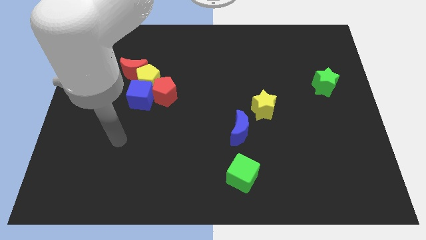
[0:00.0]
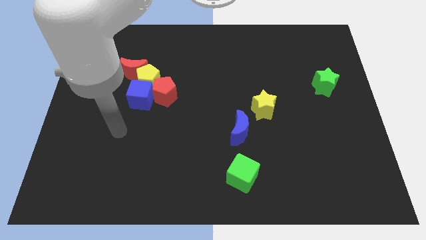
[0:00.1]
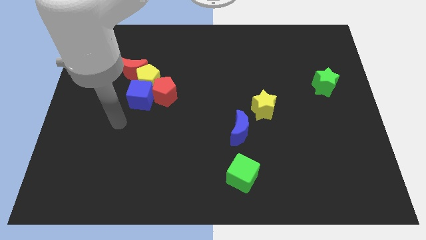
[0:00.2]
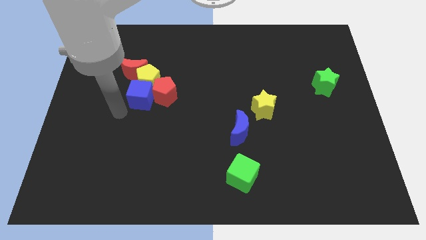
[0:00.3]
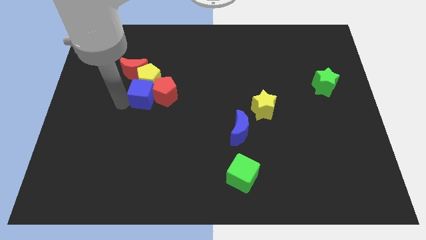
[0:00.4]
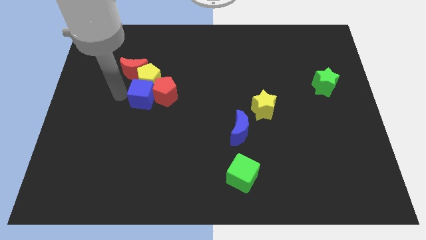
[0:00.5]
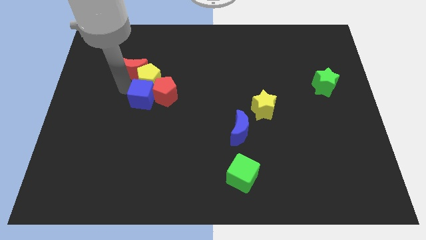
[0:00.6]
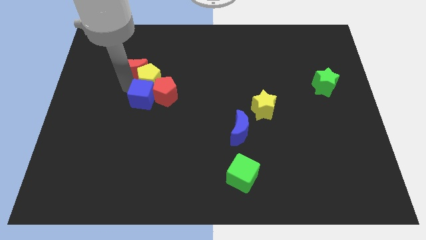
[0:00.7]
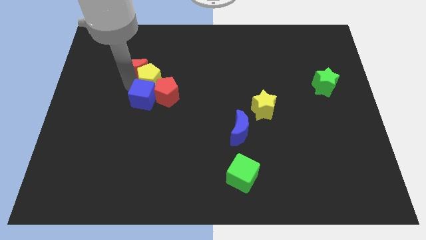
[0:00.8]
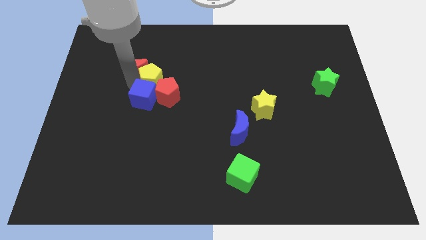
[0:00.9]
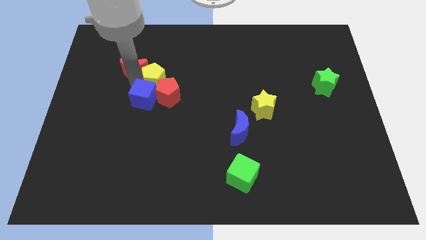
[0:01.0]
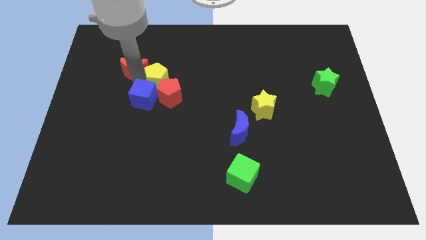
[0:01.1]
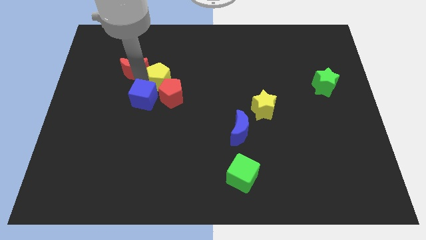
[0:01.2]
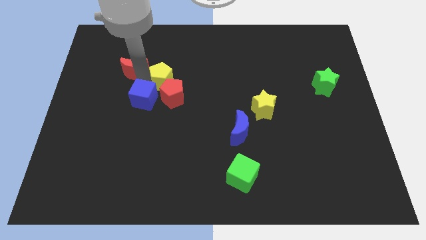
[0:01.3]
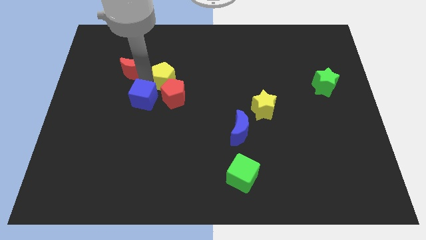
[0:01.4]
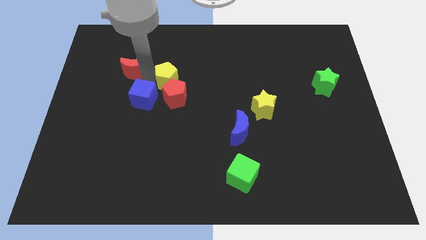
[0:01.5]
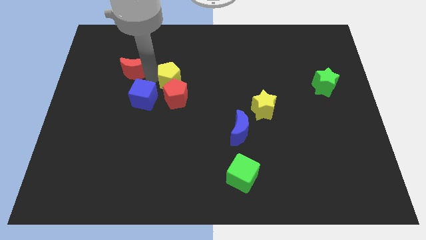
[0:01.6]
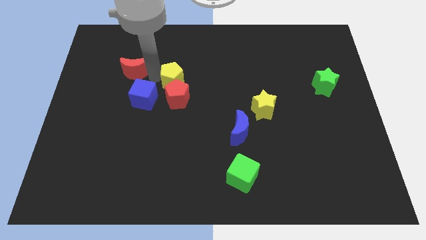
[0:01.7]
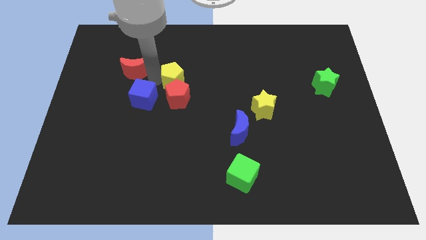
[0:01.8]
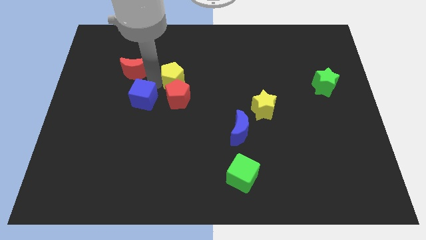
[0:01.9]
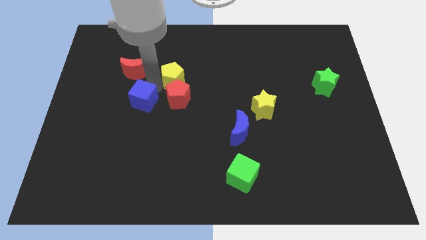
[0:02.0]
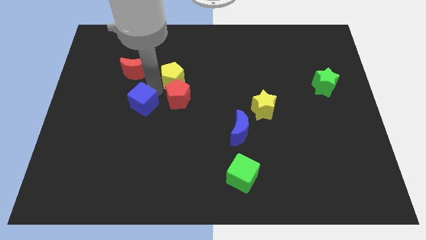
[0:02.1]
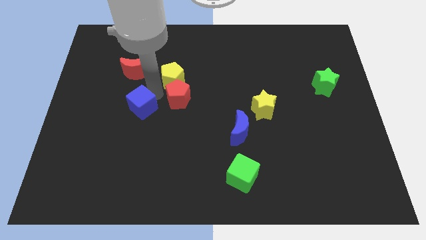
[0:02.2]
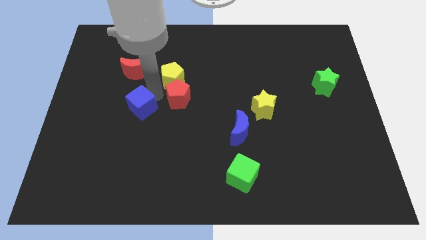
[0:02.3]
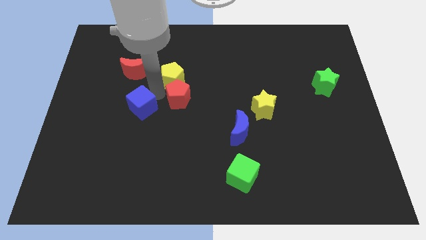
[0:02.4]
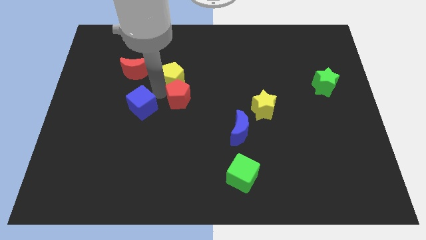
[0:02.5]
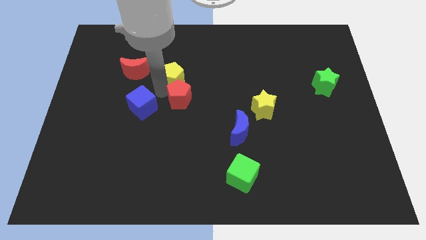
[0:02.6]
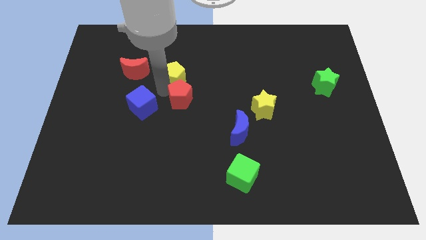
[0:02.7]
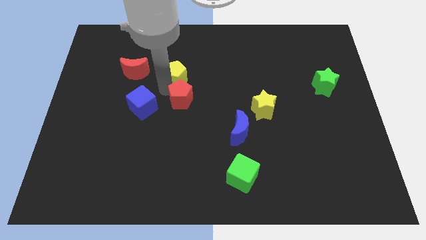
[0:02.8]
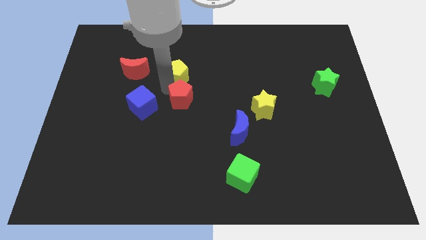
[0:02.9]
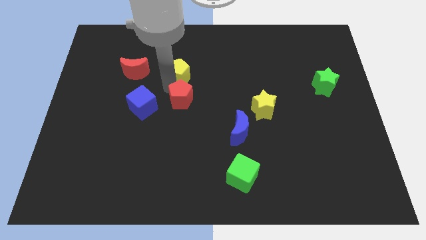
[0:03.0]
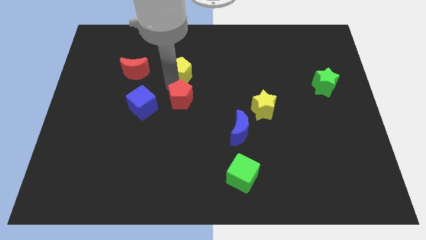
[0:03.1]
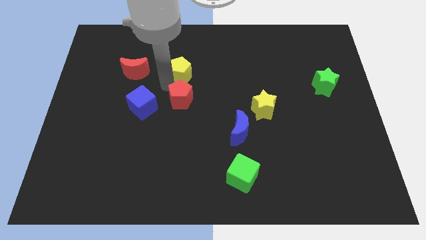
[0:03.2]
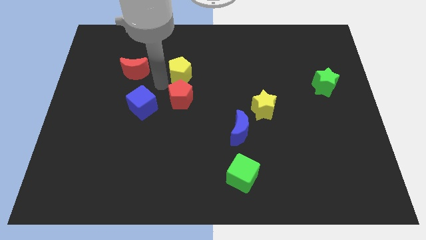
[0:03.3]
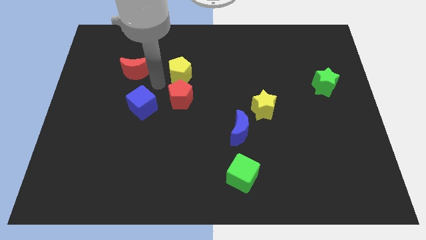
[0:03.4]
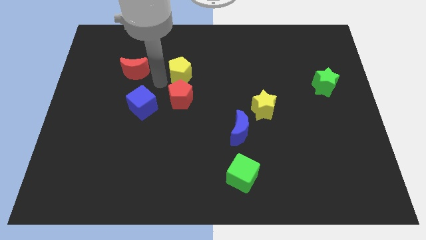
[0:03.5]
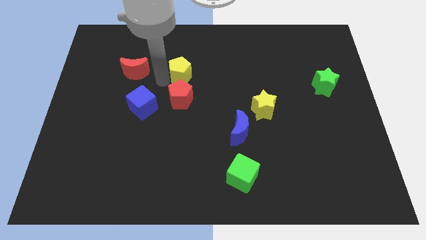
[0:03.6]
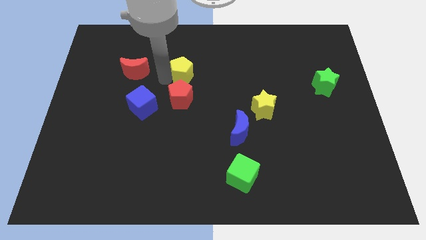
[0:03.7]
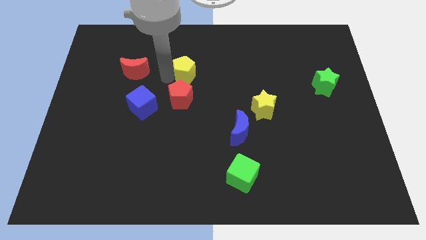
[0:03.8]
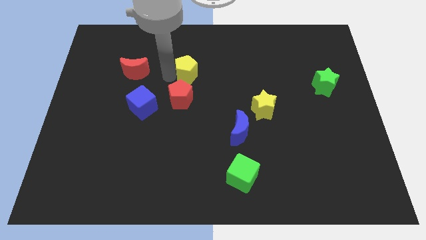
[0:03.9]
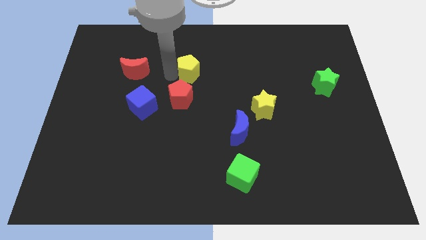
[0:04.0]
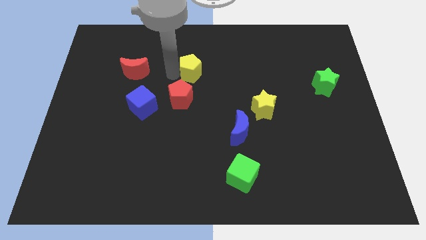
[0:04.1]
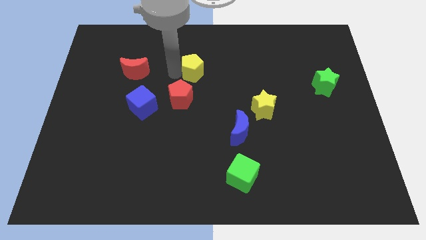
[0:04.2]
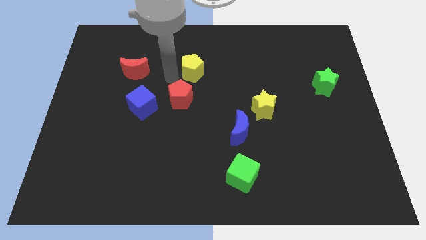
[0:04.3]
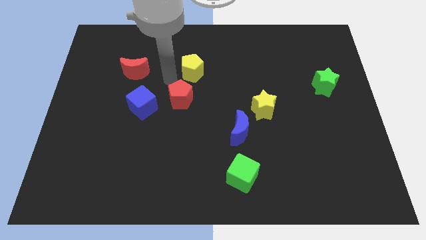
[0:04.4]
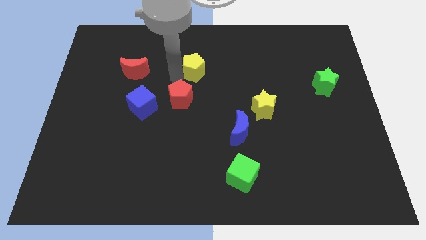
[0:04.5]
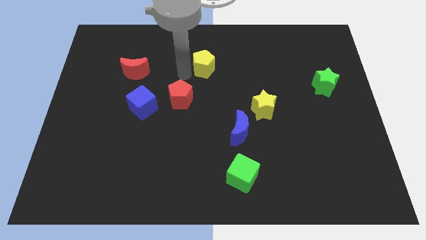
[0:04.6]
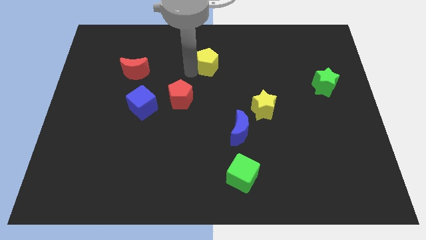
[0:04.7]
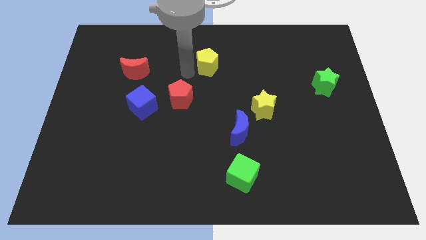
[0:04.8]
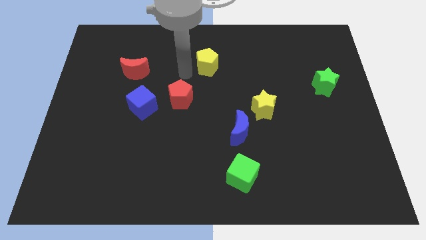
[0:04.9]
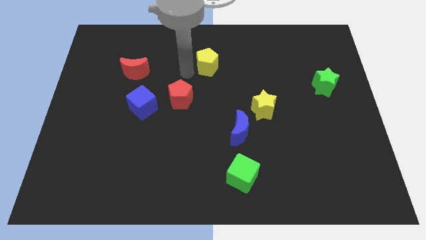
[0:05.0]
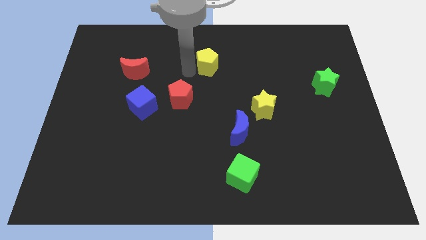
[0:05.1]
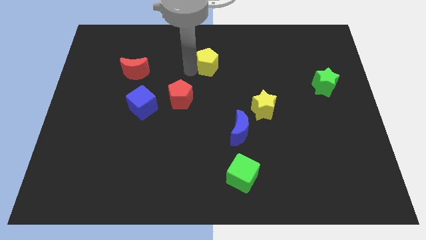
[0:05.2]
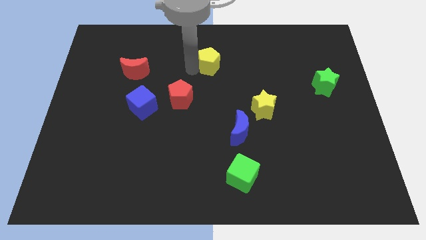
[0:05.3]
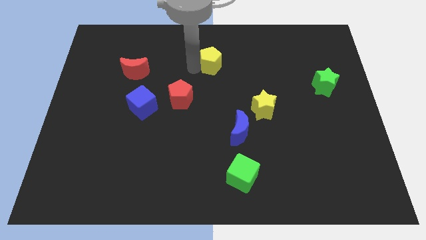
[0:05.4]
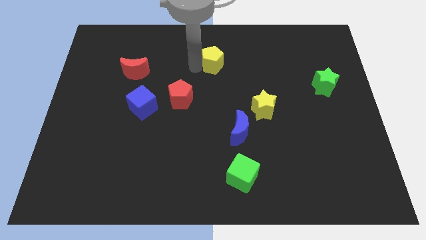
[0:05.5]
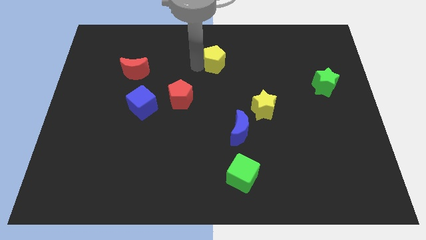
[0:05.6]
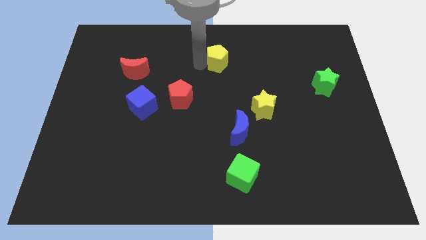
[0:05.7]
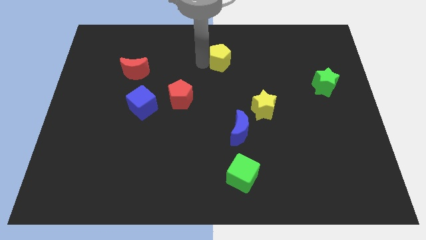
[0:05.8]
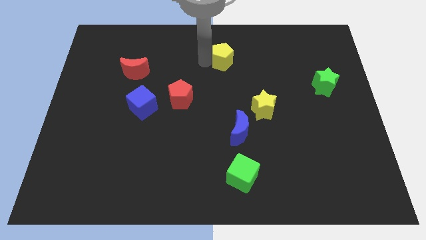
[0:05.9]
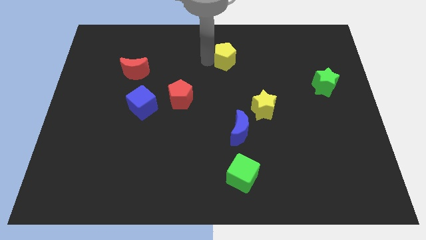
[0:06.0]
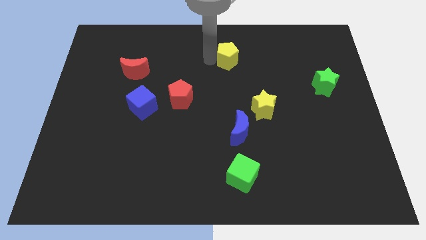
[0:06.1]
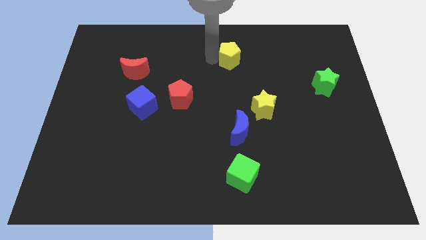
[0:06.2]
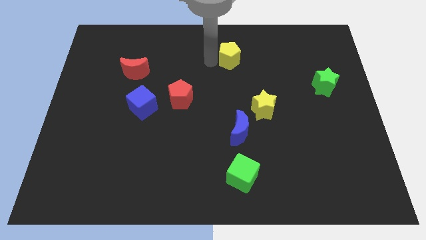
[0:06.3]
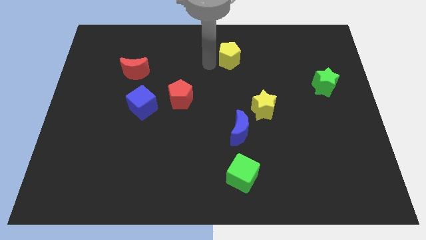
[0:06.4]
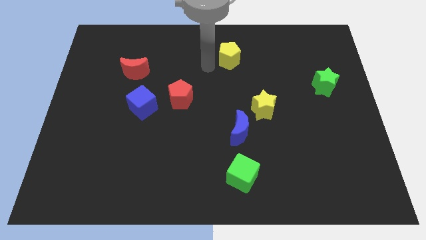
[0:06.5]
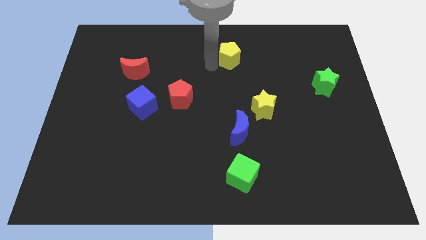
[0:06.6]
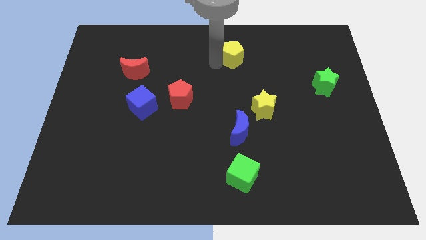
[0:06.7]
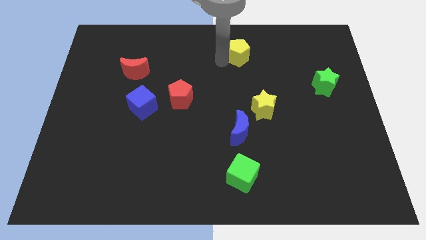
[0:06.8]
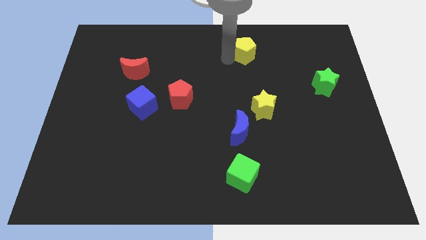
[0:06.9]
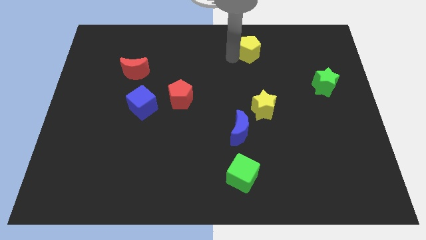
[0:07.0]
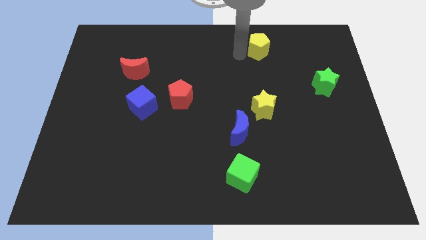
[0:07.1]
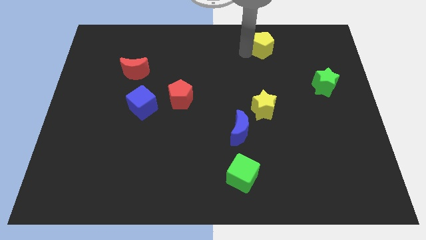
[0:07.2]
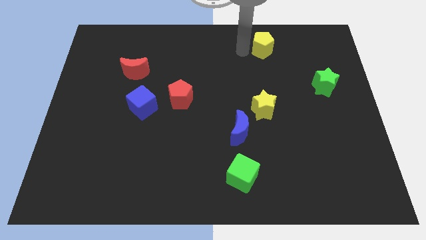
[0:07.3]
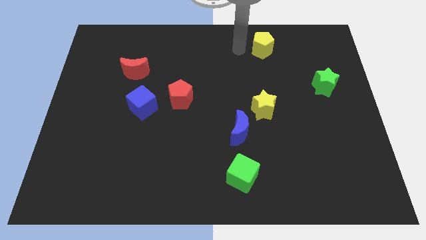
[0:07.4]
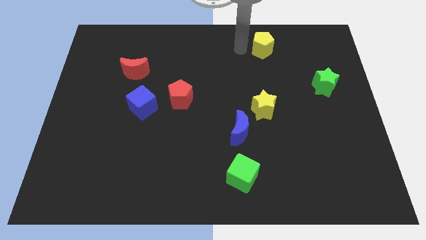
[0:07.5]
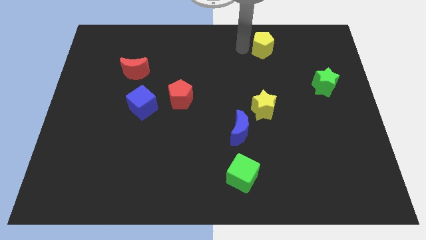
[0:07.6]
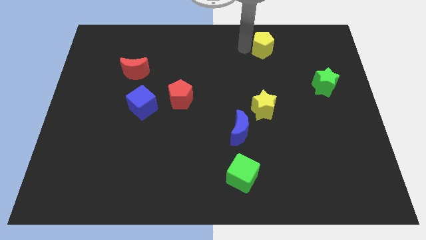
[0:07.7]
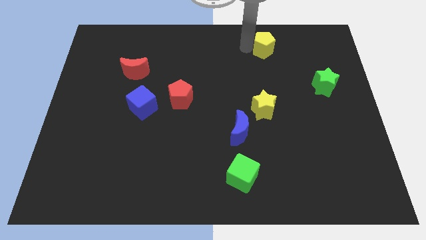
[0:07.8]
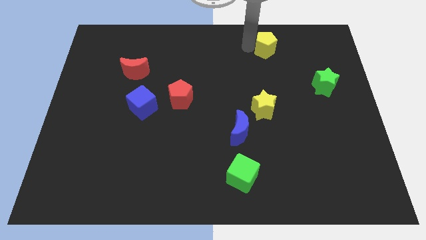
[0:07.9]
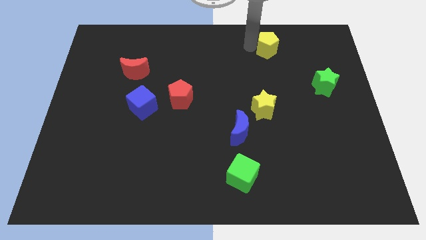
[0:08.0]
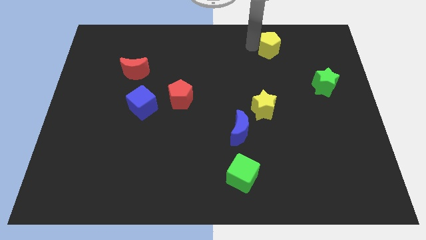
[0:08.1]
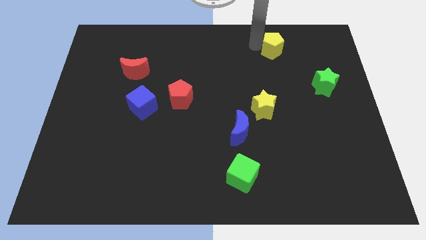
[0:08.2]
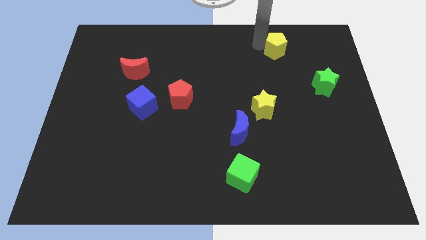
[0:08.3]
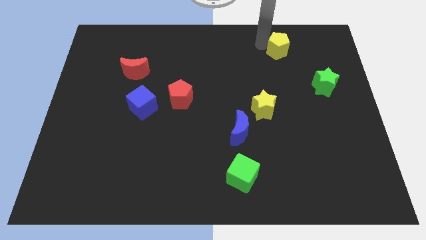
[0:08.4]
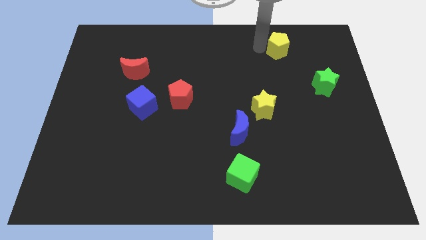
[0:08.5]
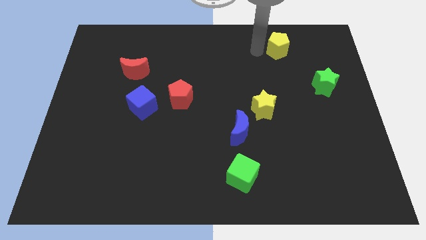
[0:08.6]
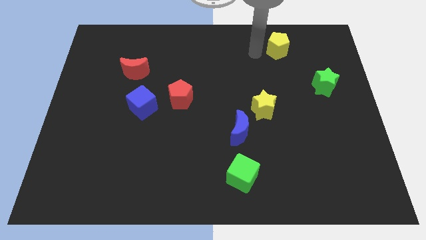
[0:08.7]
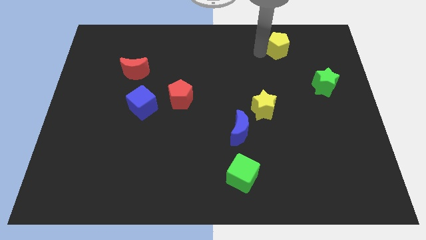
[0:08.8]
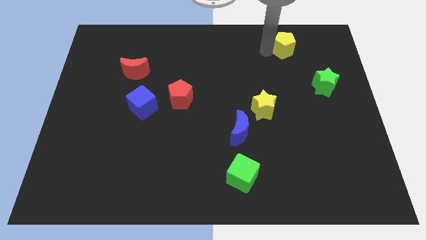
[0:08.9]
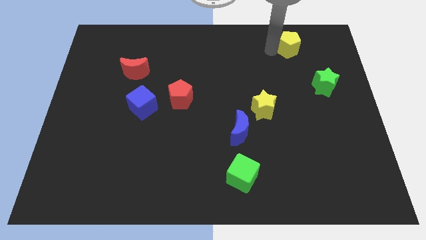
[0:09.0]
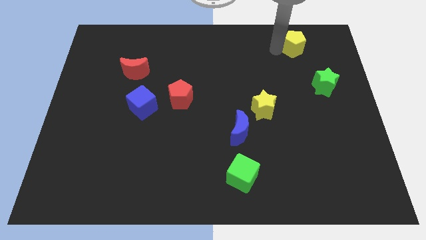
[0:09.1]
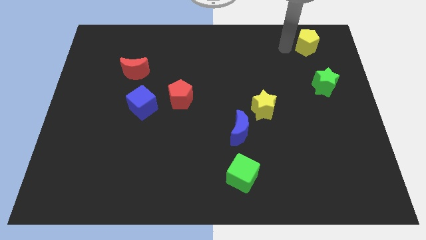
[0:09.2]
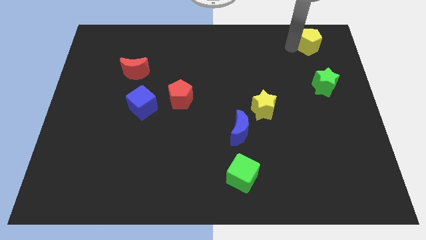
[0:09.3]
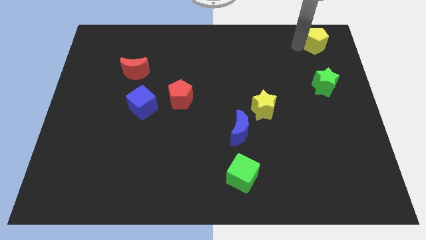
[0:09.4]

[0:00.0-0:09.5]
move the yellow pentagon to the top right of the board
